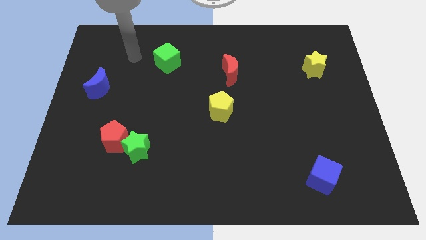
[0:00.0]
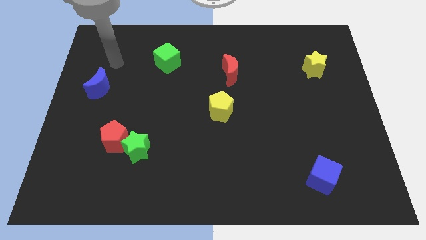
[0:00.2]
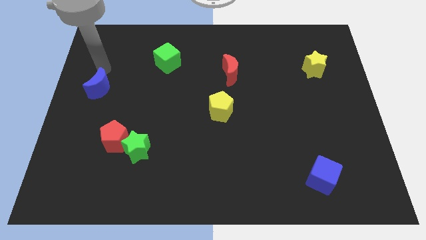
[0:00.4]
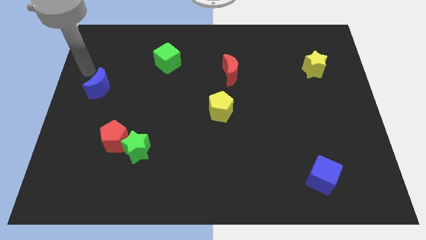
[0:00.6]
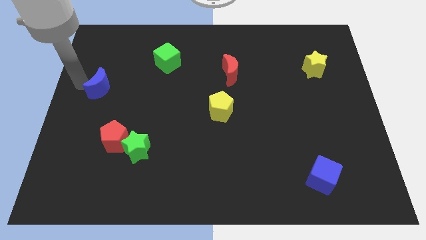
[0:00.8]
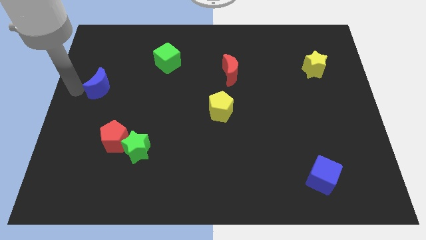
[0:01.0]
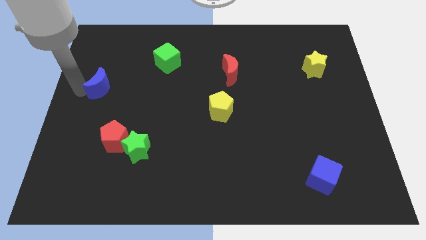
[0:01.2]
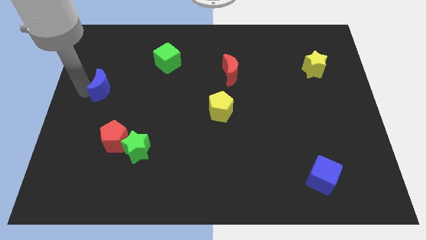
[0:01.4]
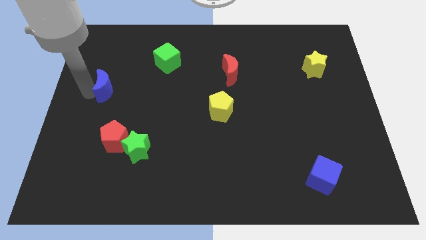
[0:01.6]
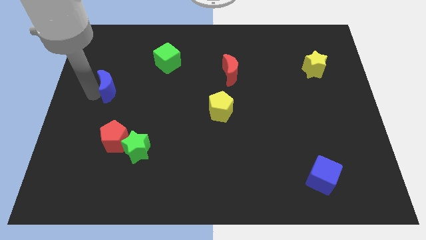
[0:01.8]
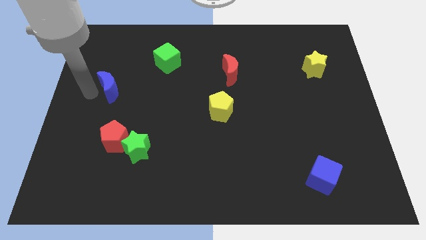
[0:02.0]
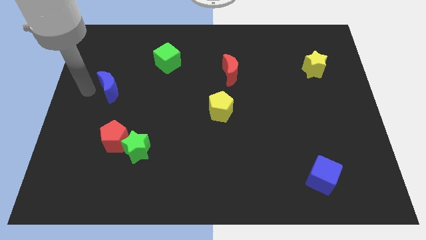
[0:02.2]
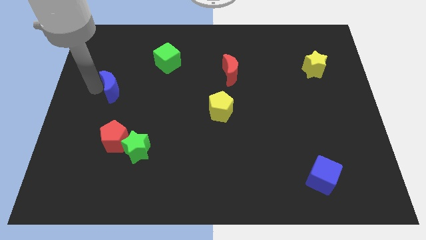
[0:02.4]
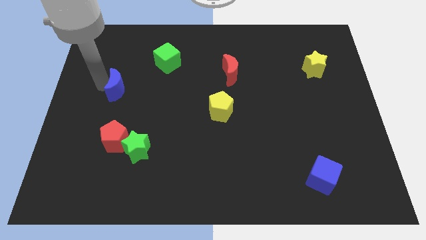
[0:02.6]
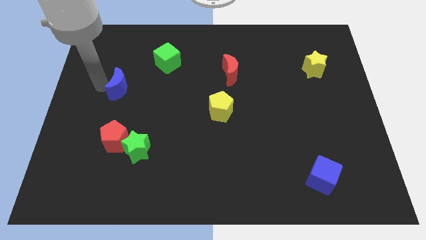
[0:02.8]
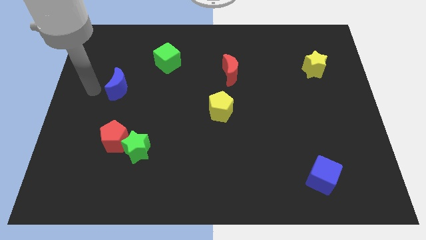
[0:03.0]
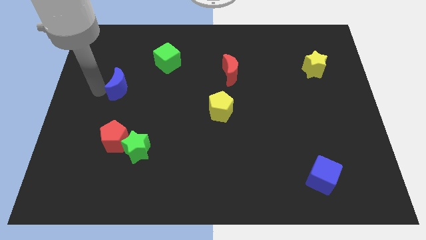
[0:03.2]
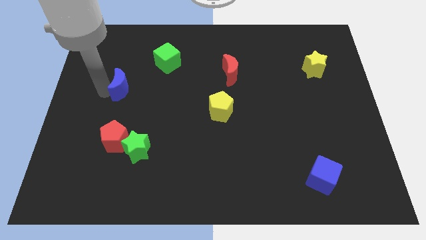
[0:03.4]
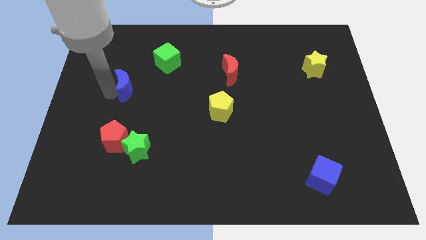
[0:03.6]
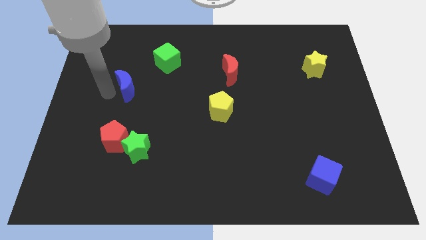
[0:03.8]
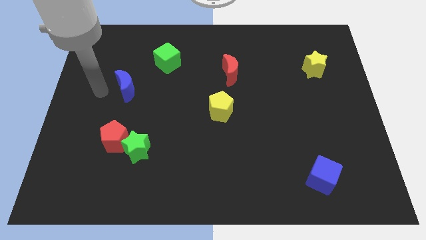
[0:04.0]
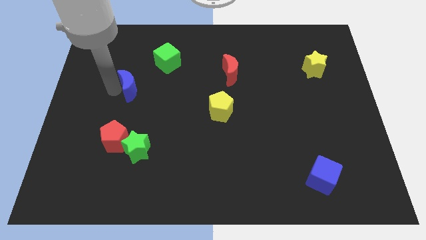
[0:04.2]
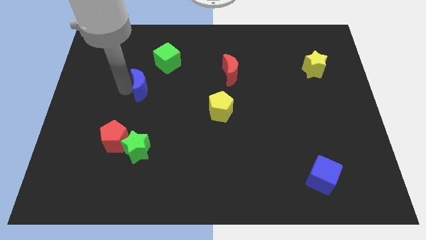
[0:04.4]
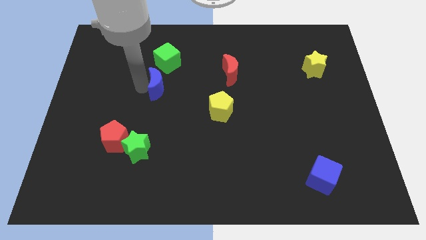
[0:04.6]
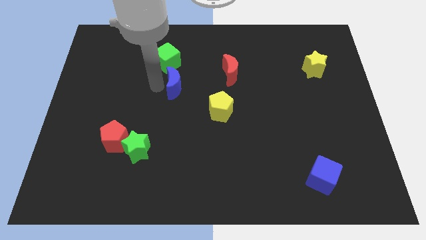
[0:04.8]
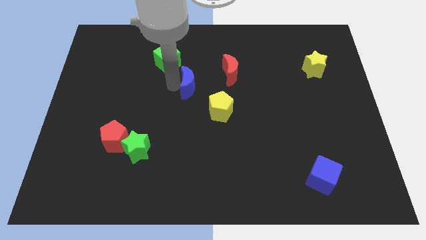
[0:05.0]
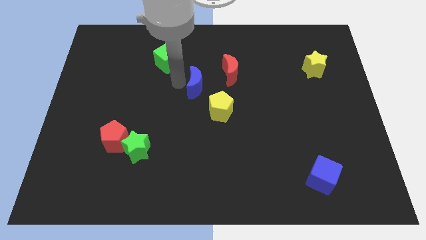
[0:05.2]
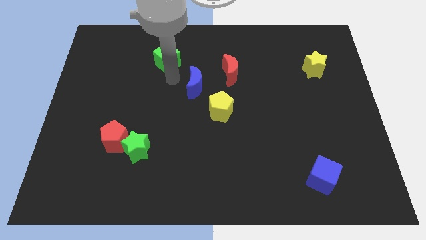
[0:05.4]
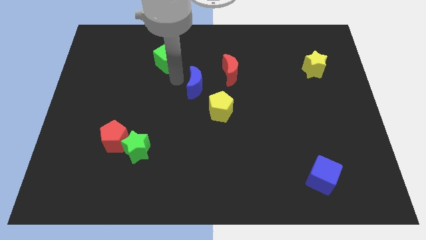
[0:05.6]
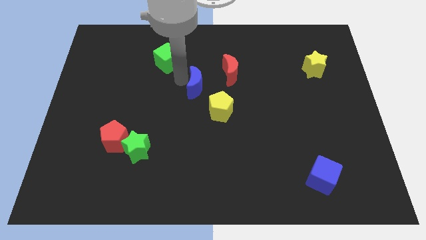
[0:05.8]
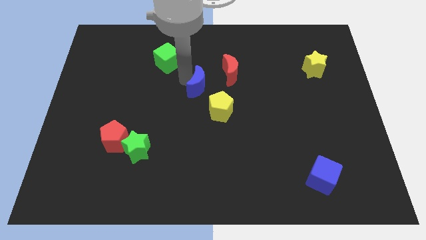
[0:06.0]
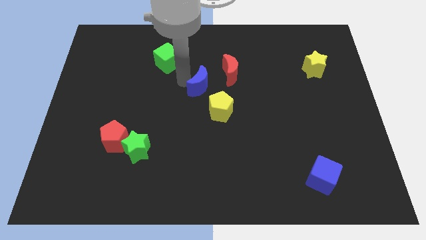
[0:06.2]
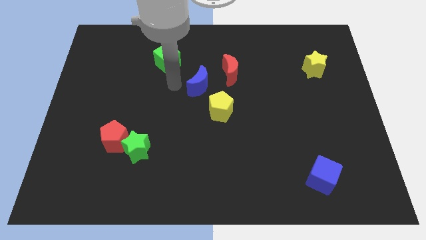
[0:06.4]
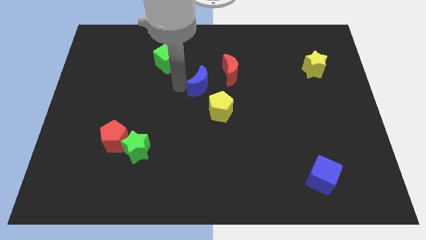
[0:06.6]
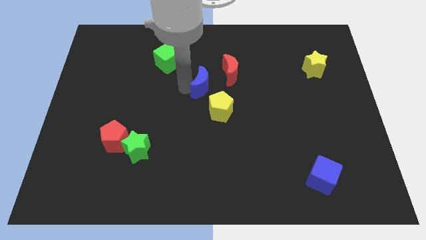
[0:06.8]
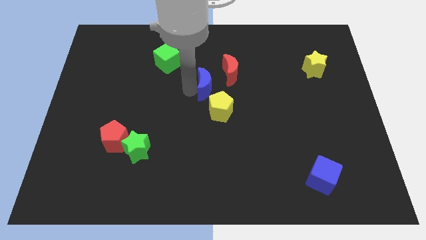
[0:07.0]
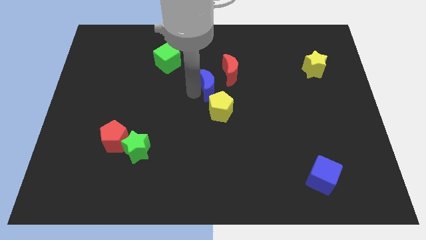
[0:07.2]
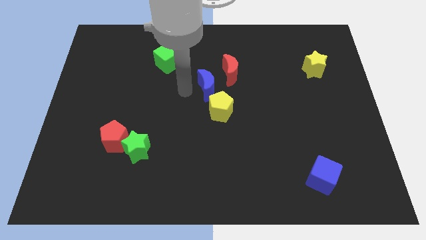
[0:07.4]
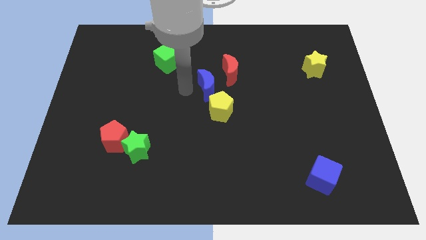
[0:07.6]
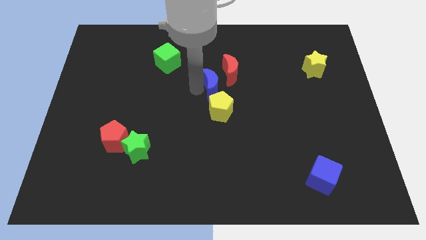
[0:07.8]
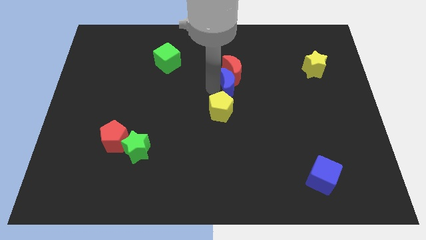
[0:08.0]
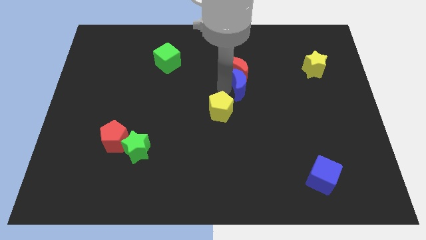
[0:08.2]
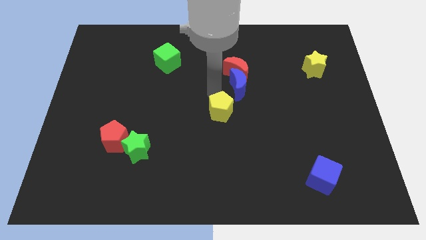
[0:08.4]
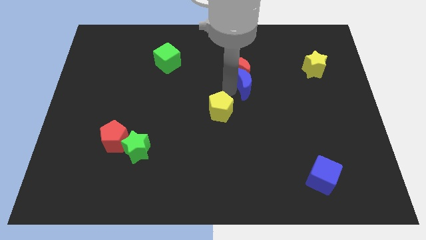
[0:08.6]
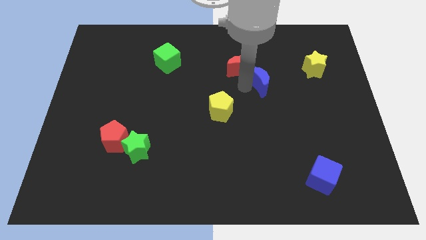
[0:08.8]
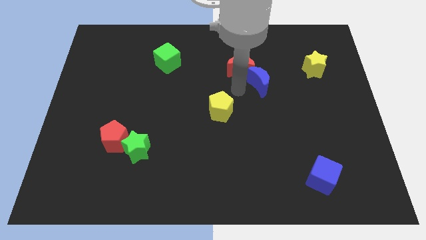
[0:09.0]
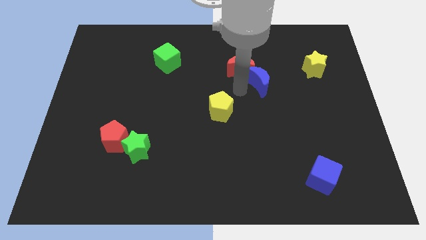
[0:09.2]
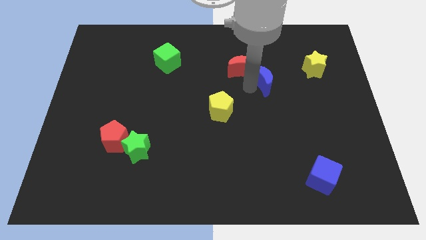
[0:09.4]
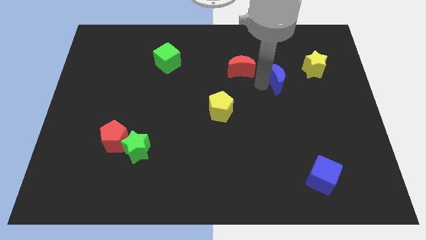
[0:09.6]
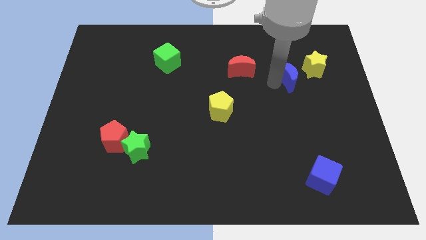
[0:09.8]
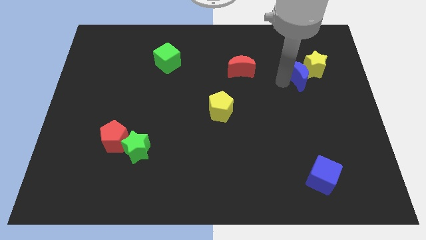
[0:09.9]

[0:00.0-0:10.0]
move the blue moon to the yellow star

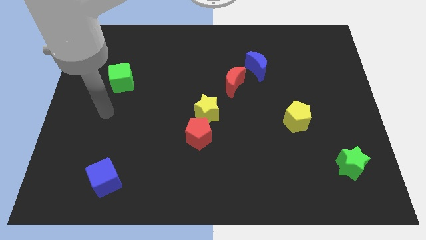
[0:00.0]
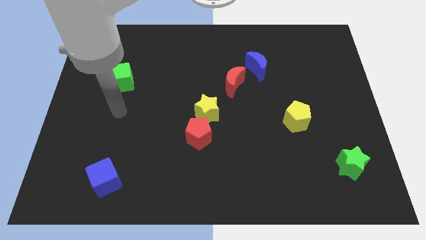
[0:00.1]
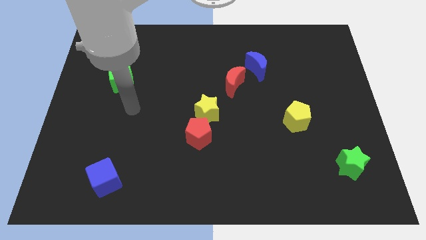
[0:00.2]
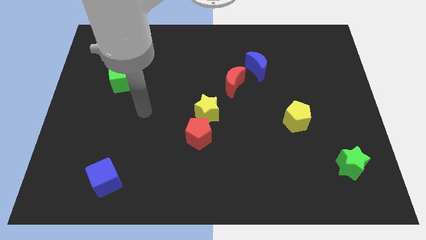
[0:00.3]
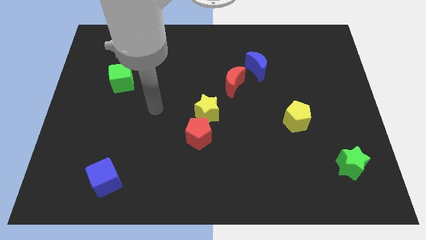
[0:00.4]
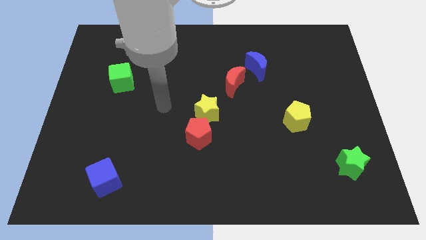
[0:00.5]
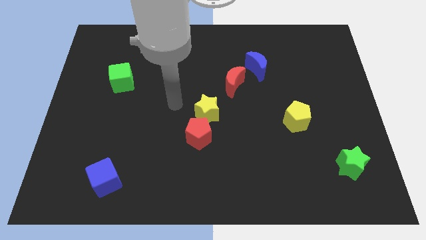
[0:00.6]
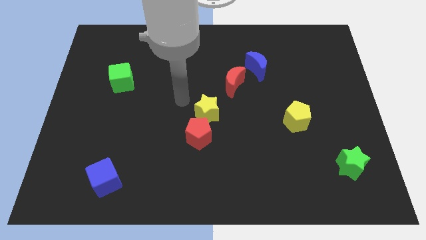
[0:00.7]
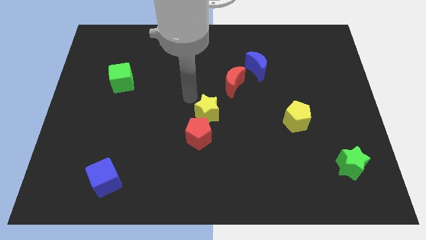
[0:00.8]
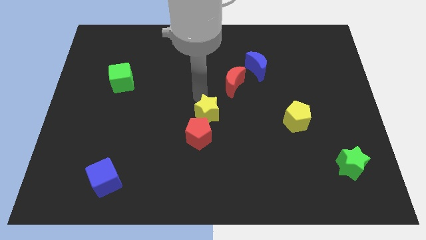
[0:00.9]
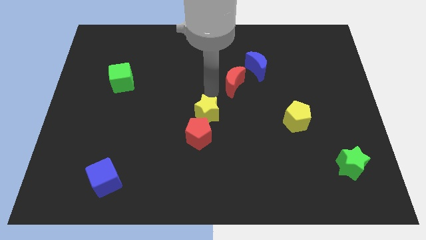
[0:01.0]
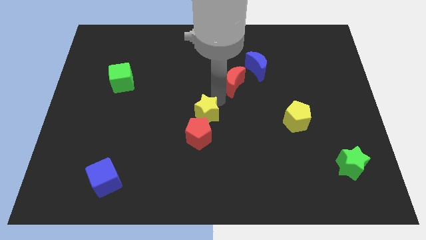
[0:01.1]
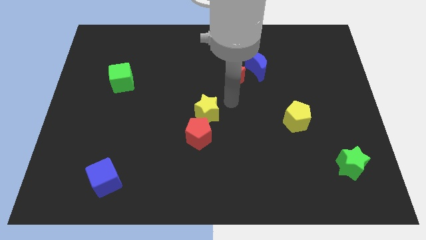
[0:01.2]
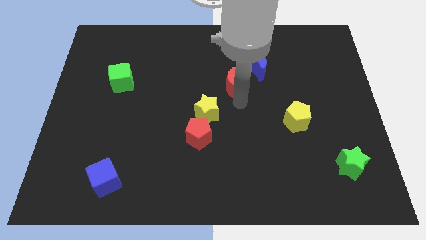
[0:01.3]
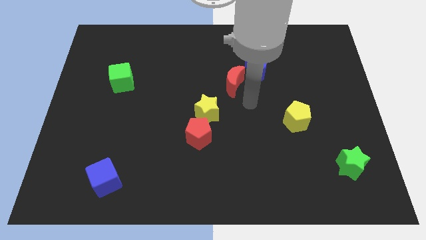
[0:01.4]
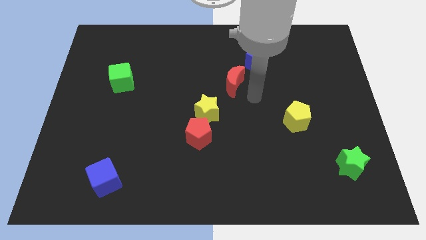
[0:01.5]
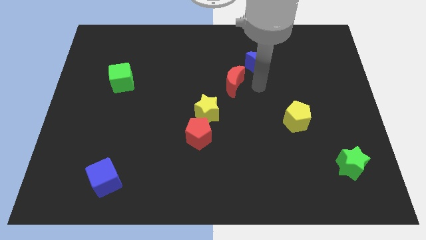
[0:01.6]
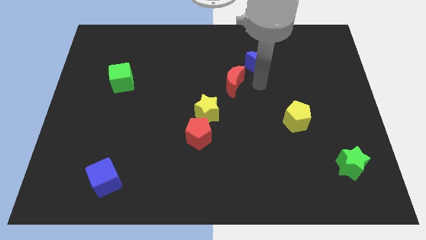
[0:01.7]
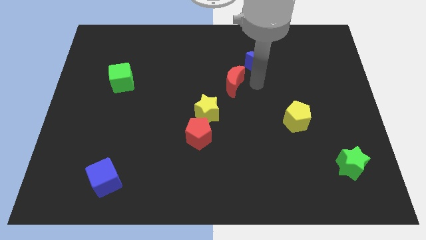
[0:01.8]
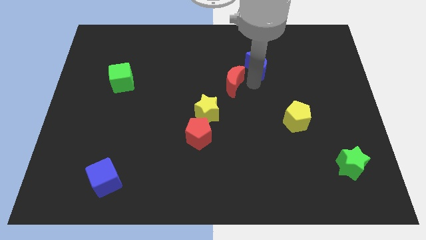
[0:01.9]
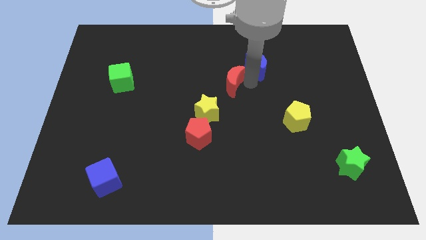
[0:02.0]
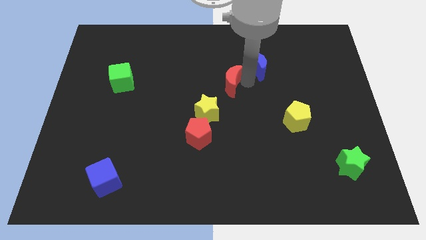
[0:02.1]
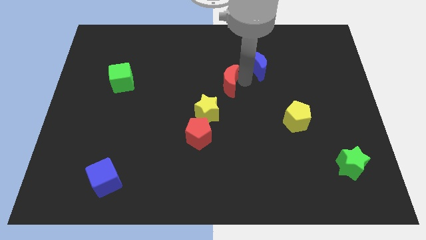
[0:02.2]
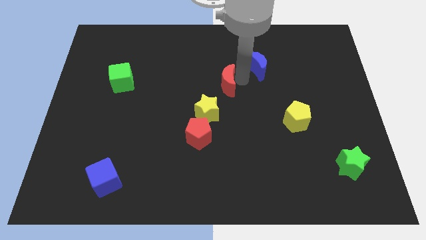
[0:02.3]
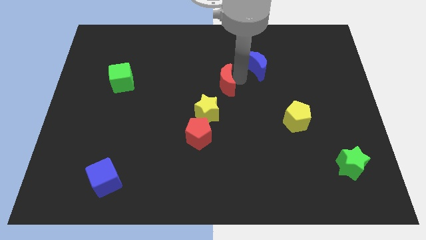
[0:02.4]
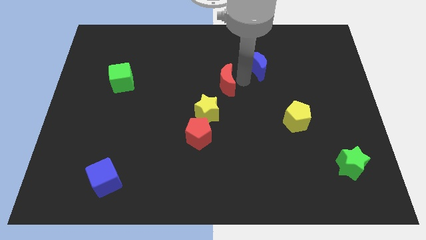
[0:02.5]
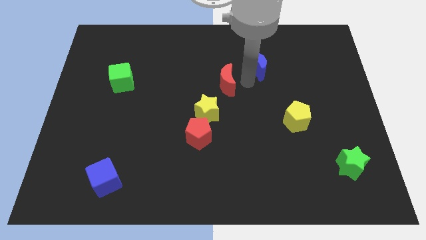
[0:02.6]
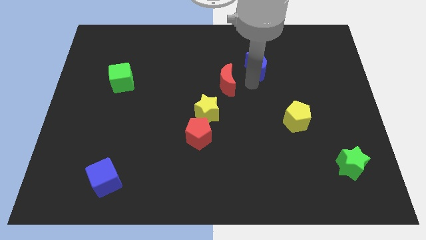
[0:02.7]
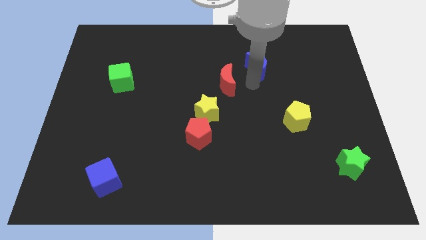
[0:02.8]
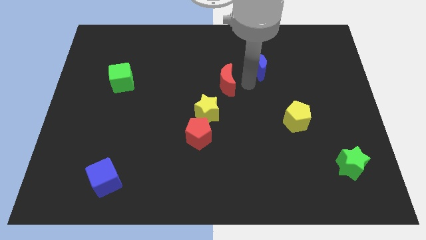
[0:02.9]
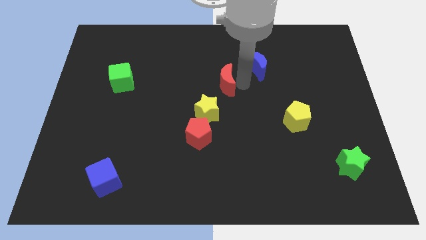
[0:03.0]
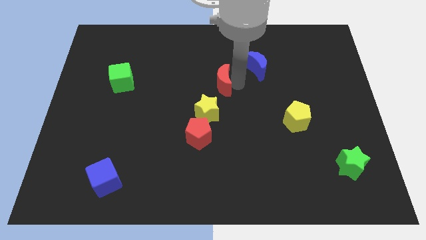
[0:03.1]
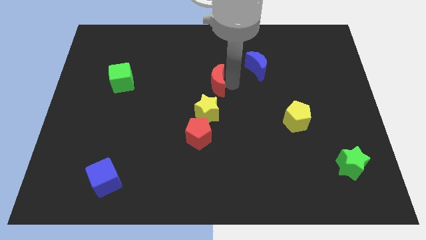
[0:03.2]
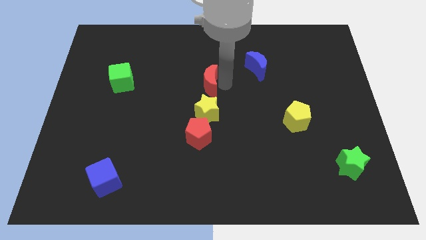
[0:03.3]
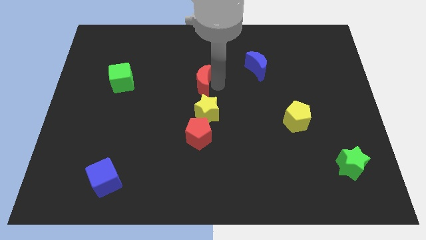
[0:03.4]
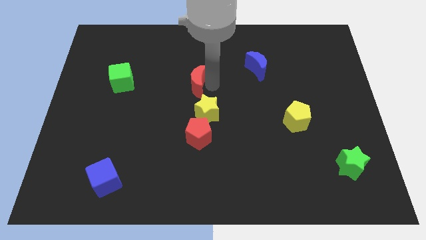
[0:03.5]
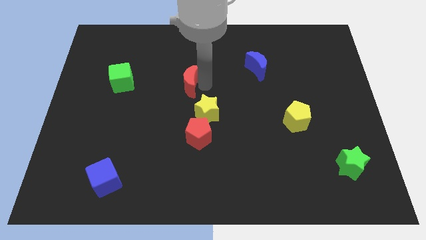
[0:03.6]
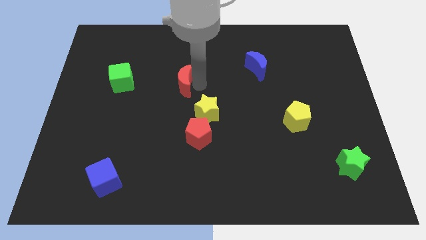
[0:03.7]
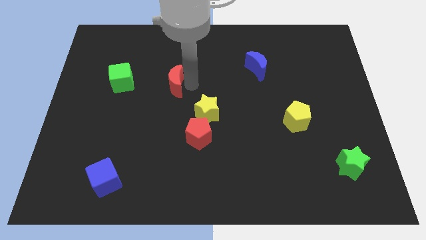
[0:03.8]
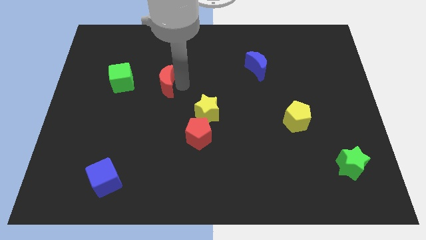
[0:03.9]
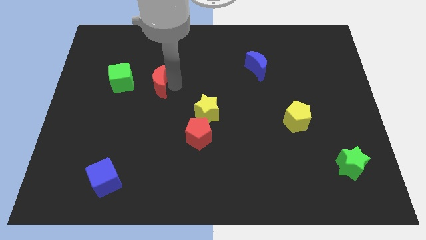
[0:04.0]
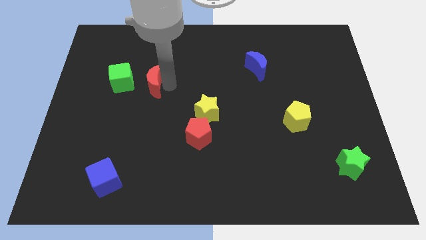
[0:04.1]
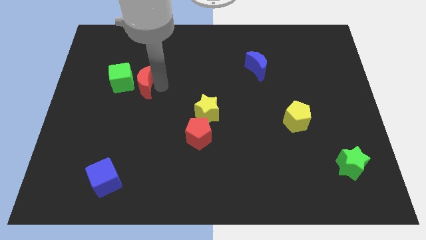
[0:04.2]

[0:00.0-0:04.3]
push the red moon towards the green cube
